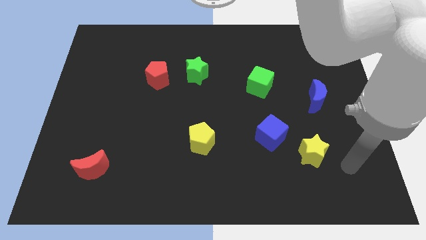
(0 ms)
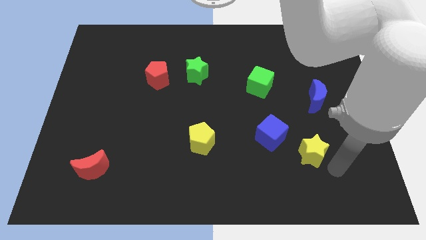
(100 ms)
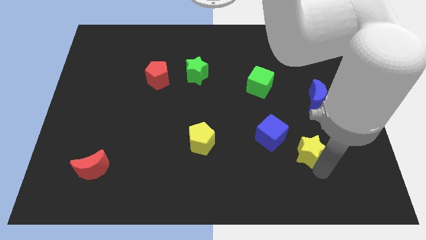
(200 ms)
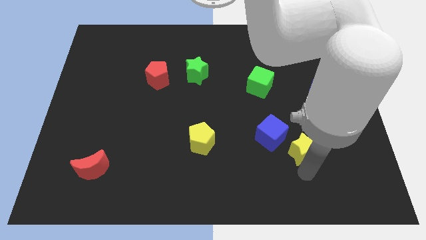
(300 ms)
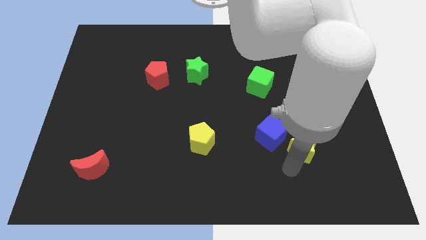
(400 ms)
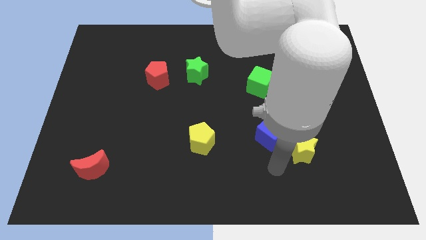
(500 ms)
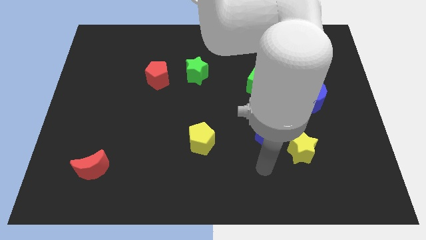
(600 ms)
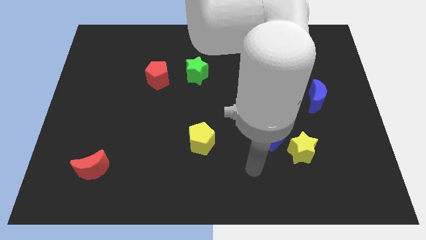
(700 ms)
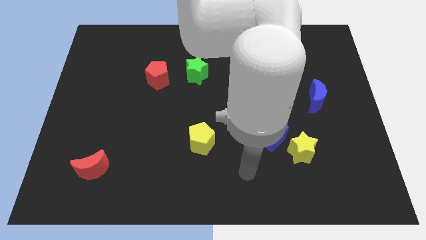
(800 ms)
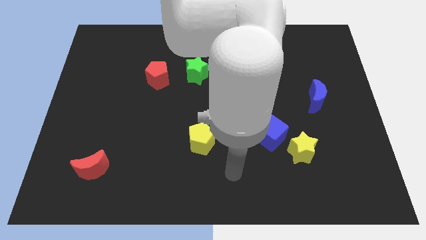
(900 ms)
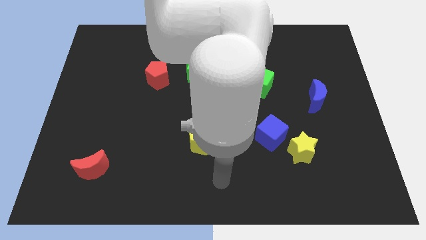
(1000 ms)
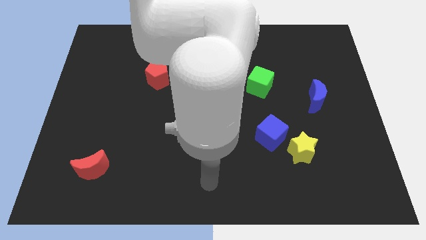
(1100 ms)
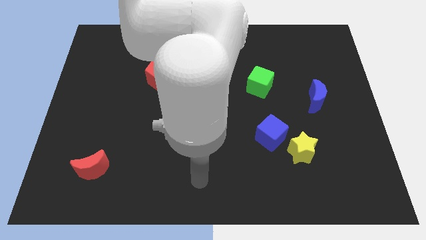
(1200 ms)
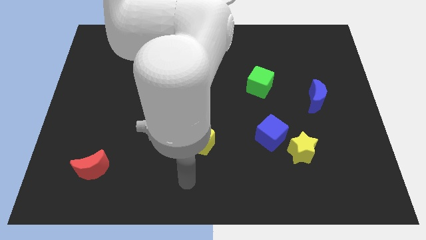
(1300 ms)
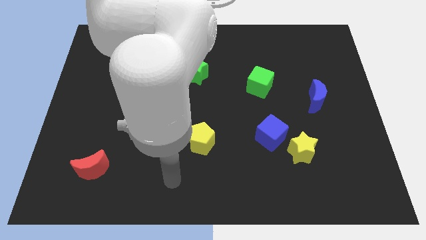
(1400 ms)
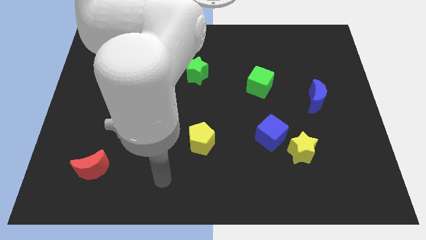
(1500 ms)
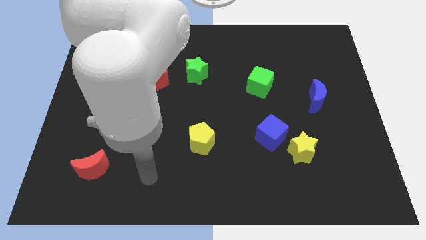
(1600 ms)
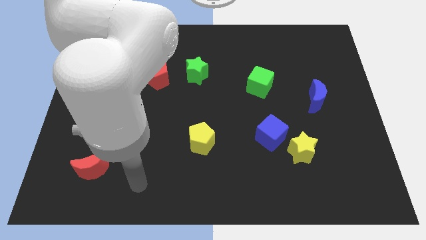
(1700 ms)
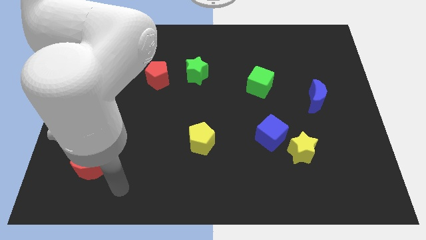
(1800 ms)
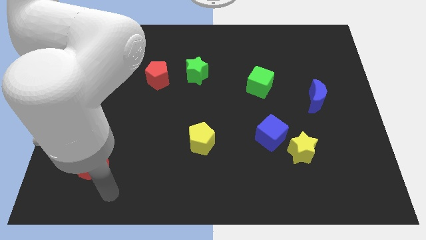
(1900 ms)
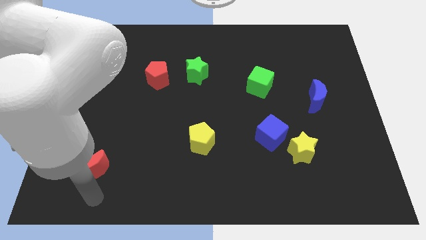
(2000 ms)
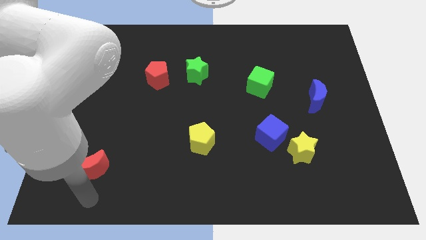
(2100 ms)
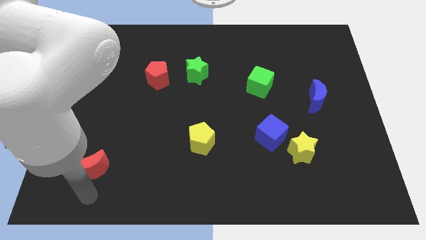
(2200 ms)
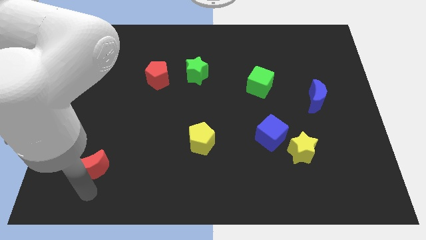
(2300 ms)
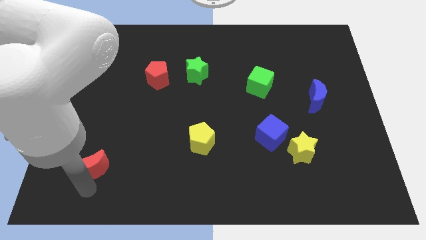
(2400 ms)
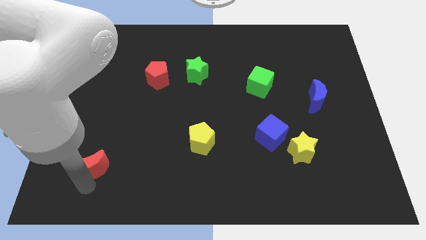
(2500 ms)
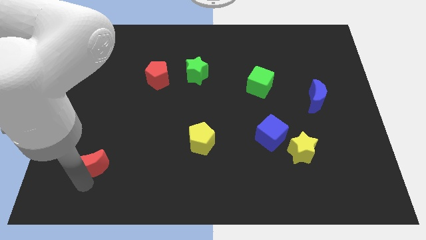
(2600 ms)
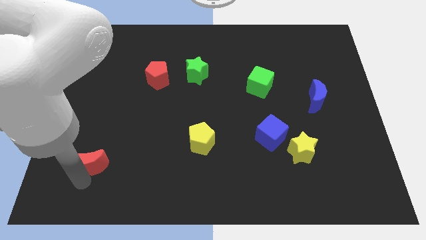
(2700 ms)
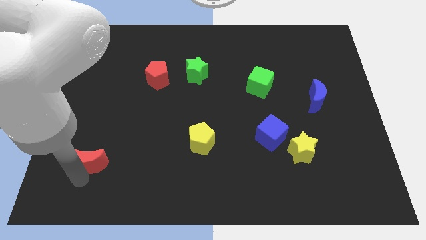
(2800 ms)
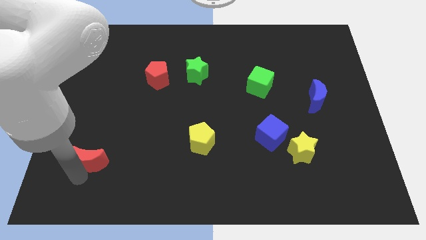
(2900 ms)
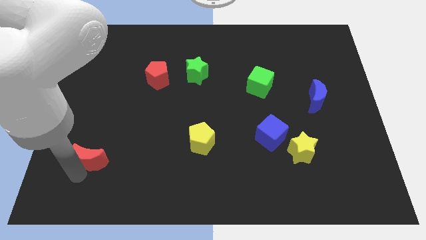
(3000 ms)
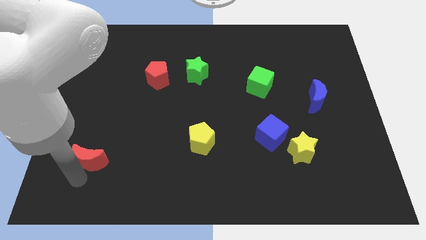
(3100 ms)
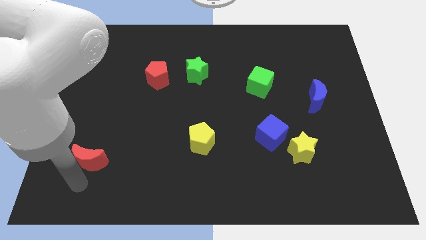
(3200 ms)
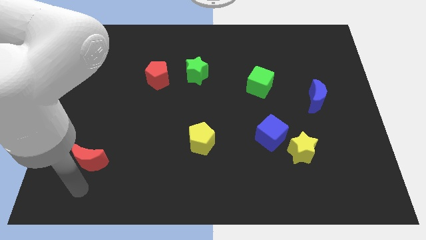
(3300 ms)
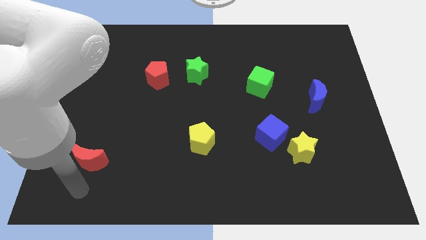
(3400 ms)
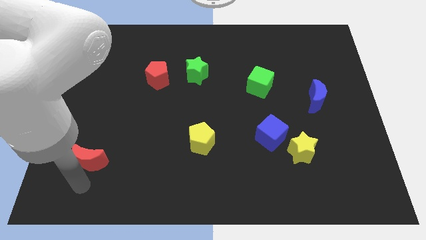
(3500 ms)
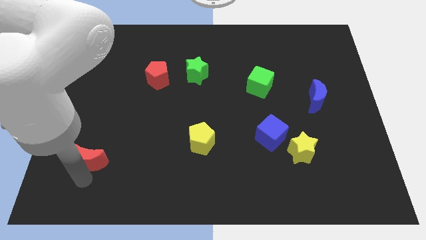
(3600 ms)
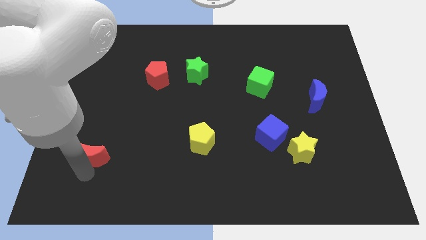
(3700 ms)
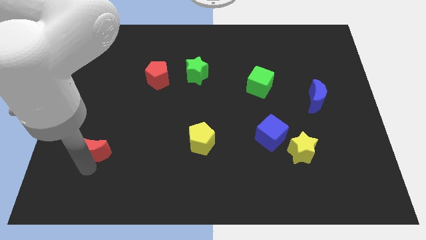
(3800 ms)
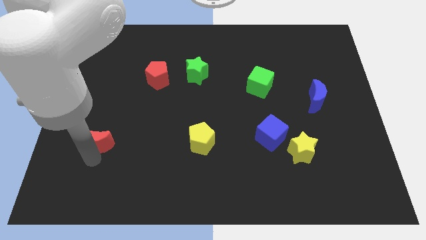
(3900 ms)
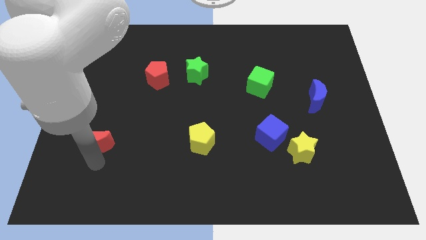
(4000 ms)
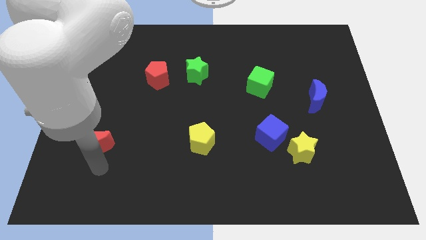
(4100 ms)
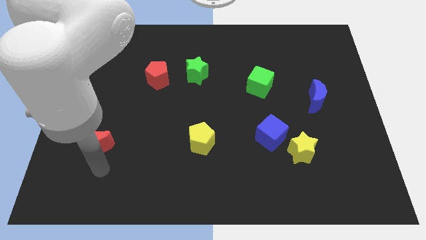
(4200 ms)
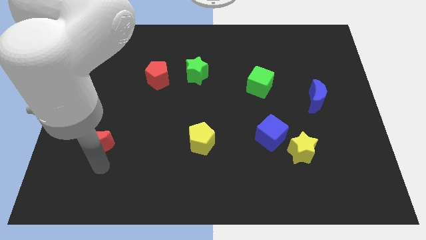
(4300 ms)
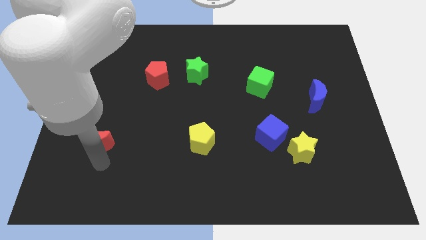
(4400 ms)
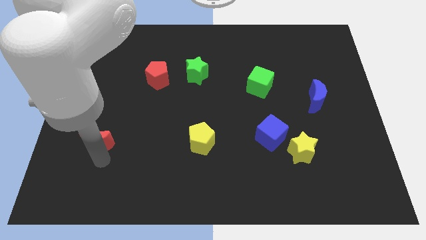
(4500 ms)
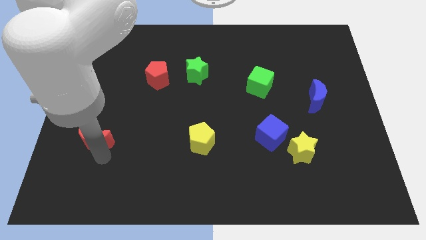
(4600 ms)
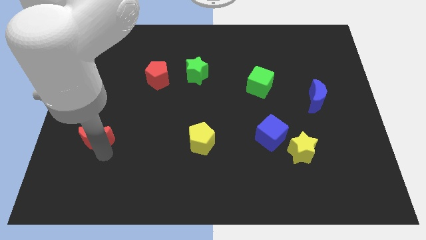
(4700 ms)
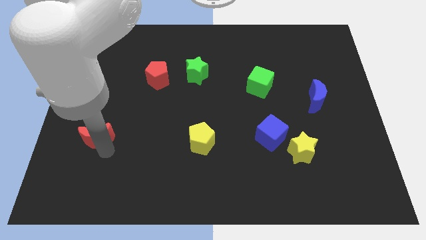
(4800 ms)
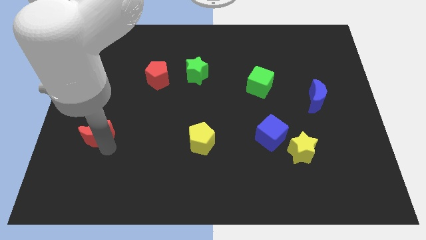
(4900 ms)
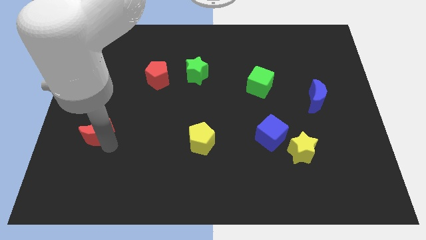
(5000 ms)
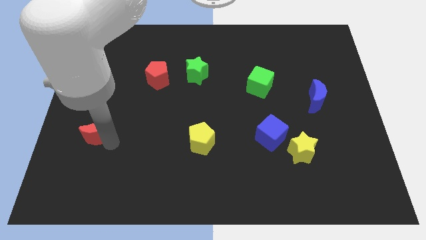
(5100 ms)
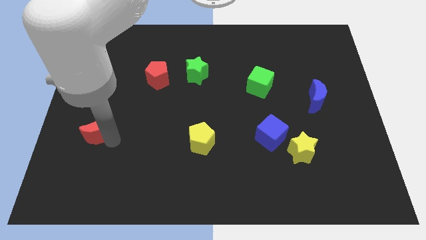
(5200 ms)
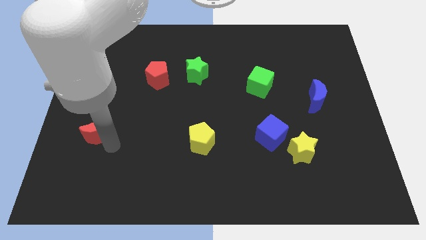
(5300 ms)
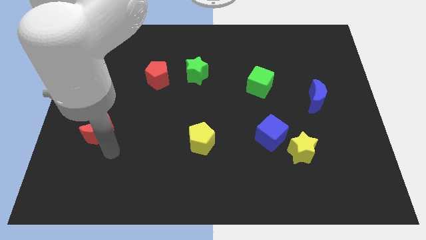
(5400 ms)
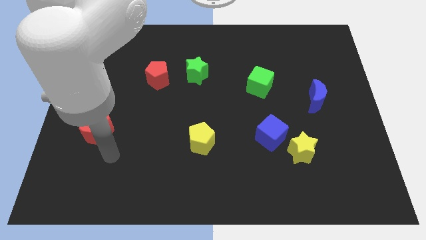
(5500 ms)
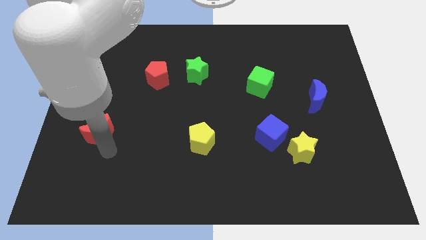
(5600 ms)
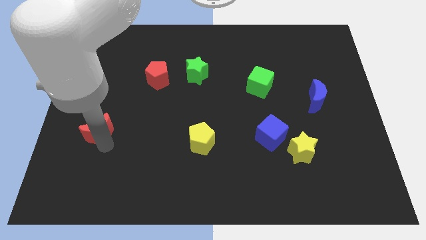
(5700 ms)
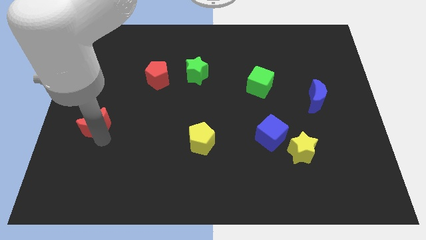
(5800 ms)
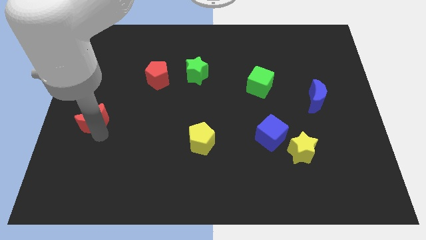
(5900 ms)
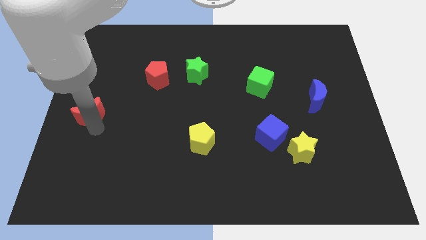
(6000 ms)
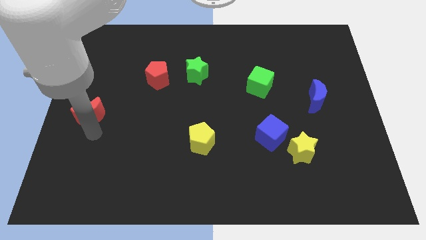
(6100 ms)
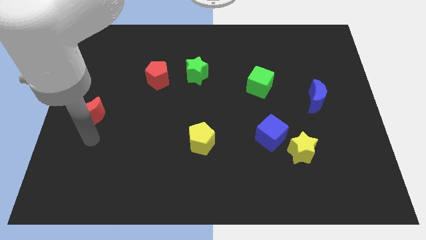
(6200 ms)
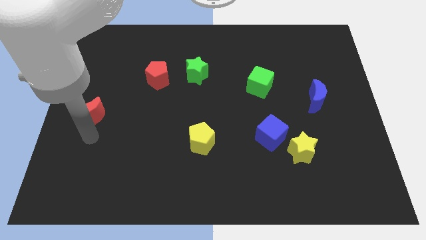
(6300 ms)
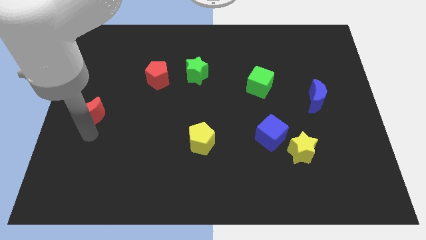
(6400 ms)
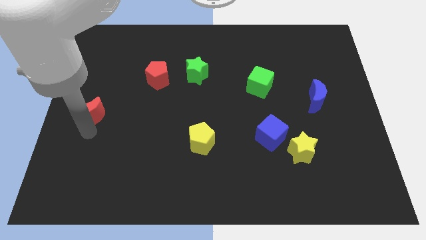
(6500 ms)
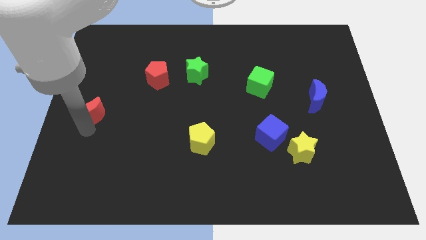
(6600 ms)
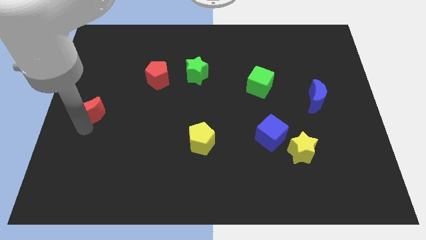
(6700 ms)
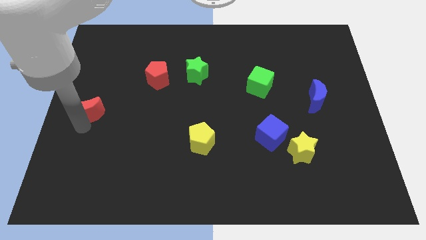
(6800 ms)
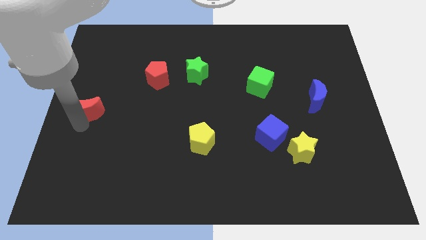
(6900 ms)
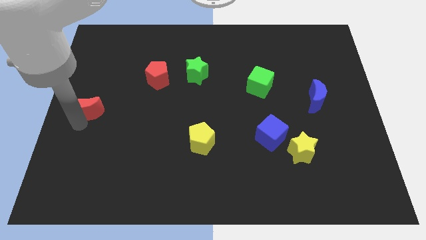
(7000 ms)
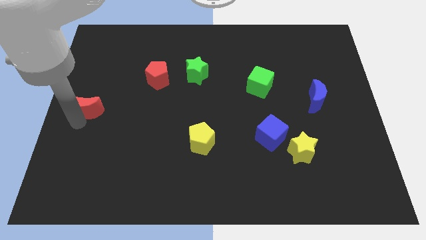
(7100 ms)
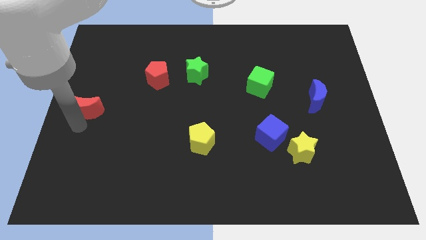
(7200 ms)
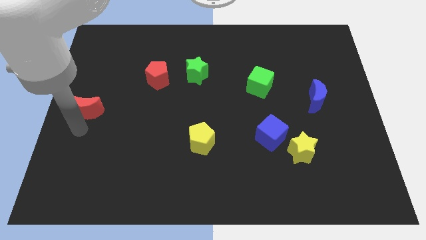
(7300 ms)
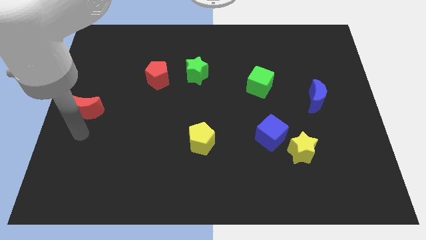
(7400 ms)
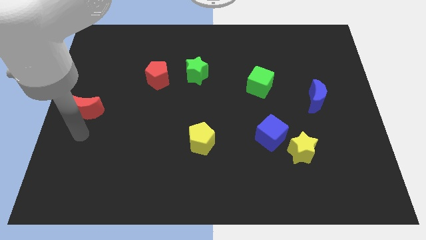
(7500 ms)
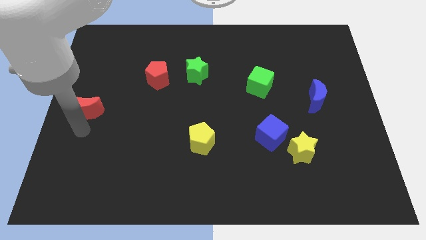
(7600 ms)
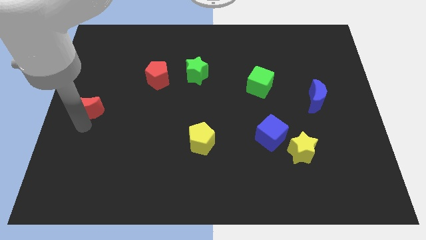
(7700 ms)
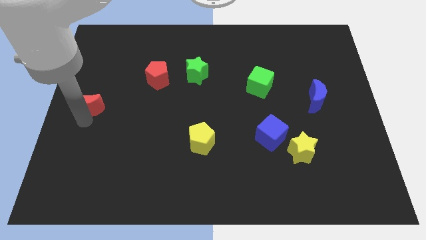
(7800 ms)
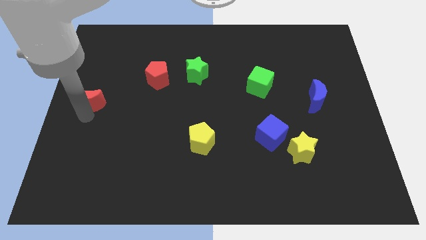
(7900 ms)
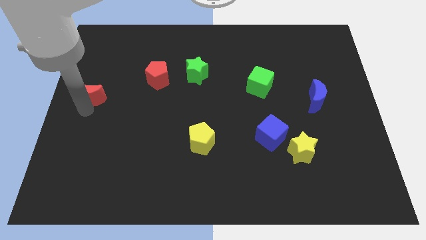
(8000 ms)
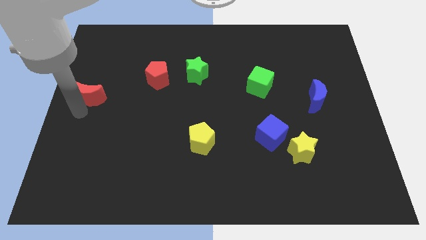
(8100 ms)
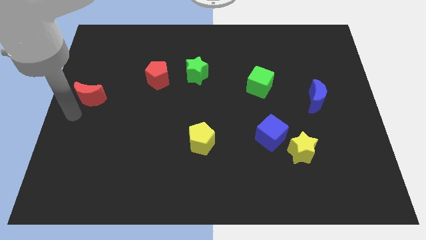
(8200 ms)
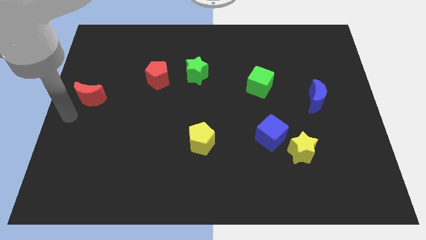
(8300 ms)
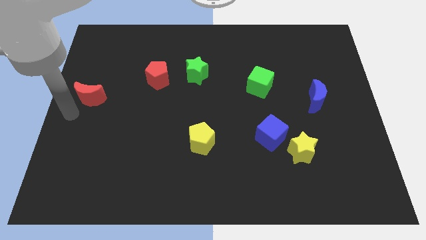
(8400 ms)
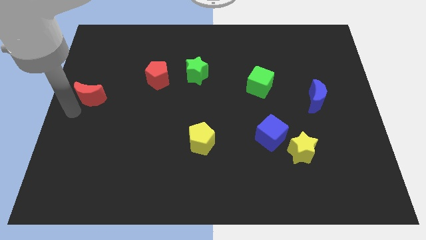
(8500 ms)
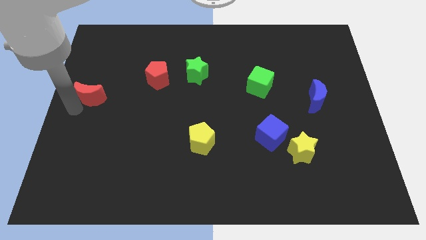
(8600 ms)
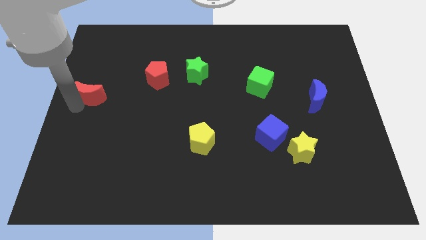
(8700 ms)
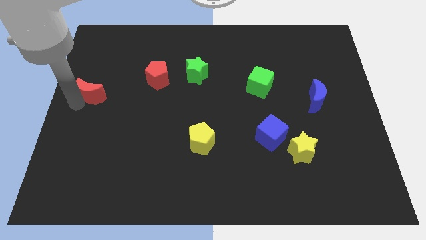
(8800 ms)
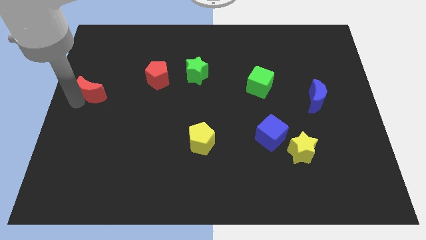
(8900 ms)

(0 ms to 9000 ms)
move the red moon upwards
